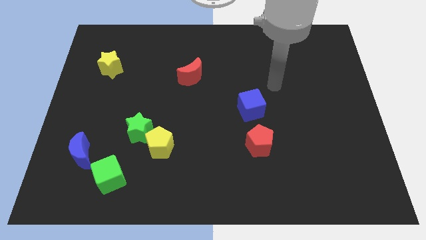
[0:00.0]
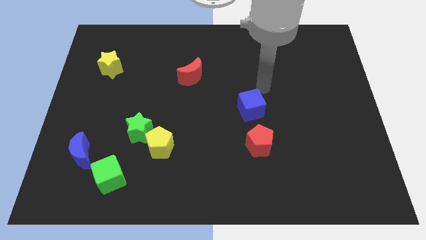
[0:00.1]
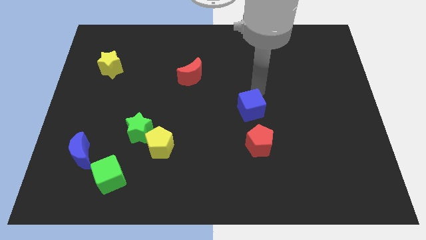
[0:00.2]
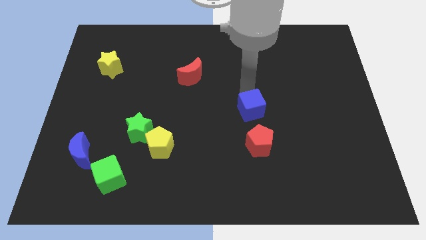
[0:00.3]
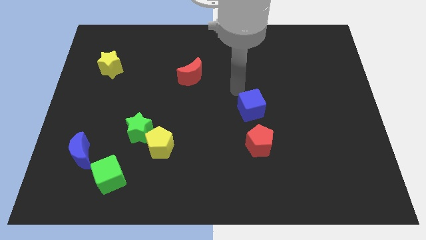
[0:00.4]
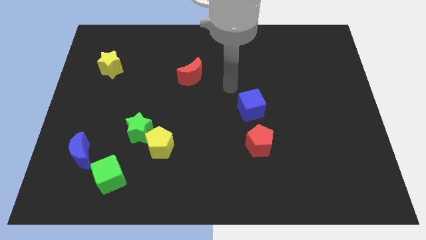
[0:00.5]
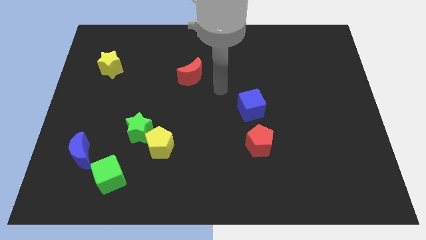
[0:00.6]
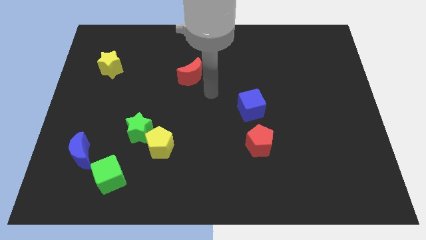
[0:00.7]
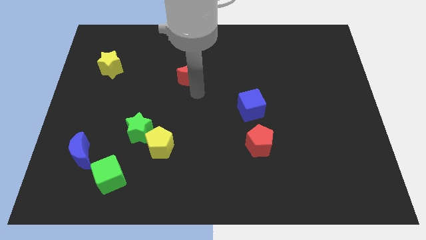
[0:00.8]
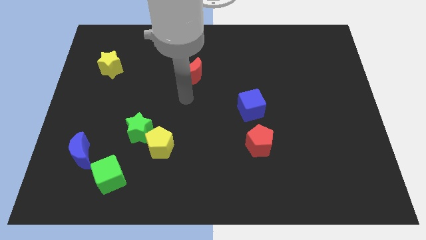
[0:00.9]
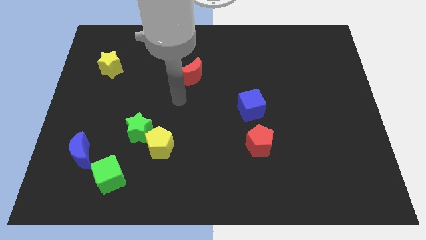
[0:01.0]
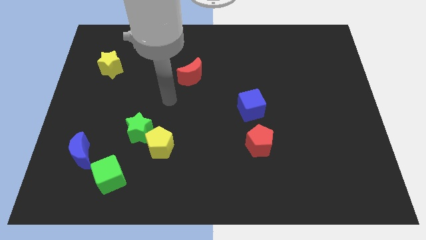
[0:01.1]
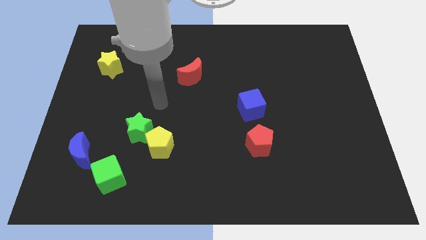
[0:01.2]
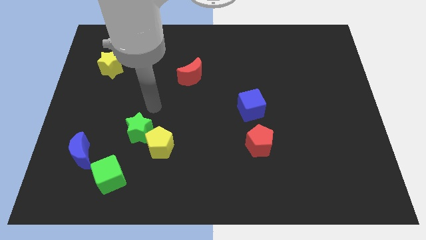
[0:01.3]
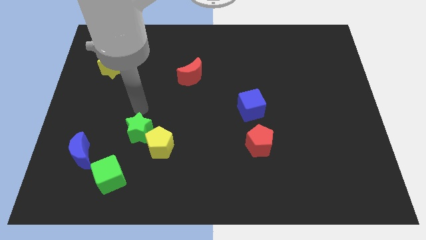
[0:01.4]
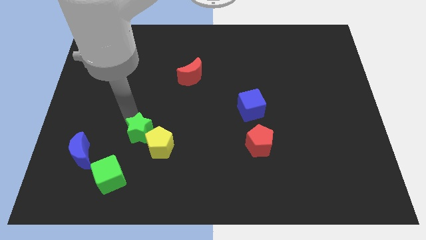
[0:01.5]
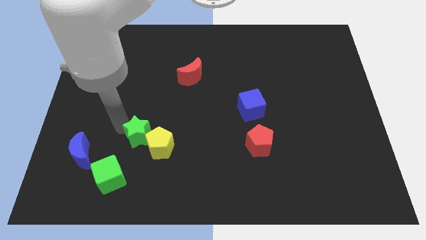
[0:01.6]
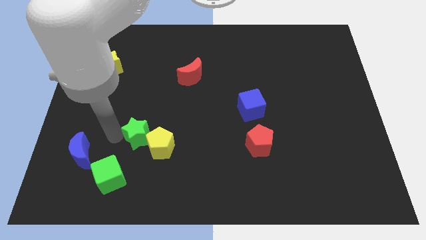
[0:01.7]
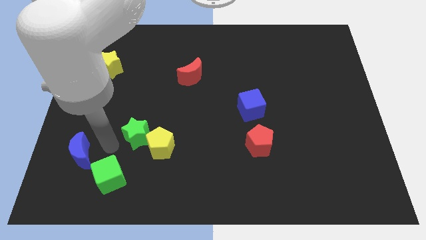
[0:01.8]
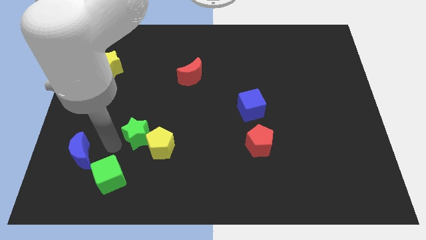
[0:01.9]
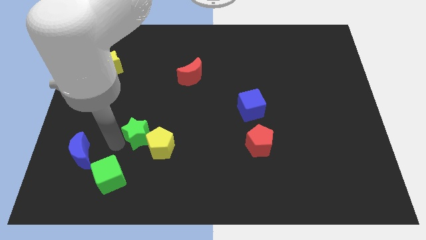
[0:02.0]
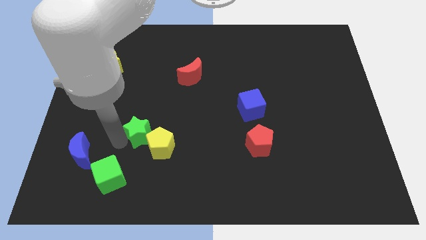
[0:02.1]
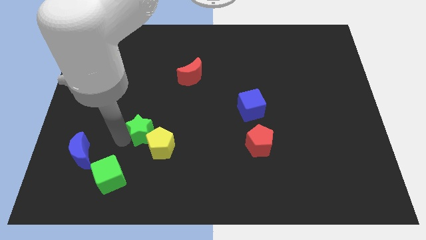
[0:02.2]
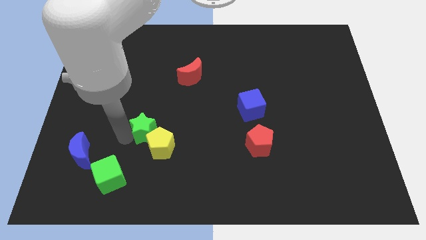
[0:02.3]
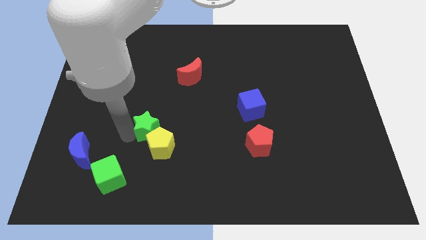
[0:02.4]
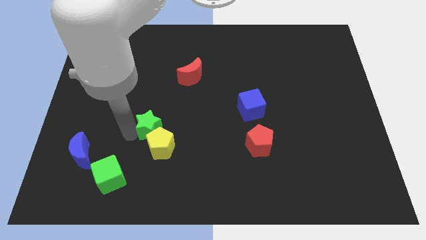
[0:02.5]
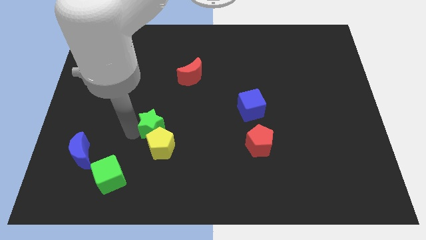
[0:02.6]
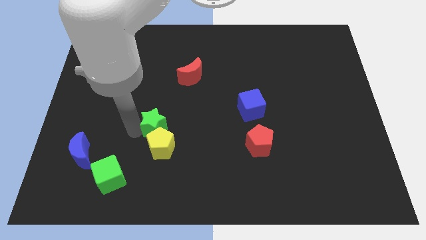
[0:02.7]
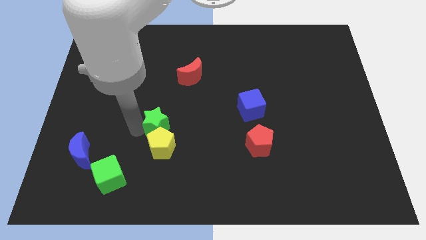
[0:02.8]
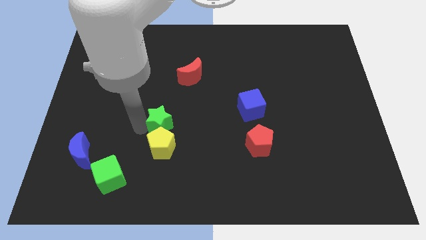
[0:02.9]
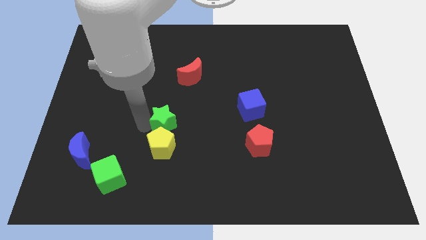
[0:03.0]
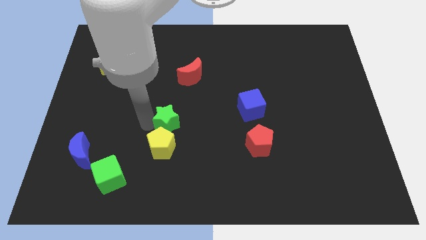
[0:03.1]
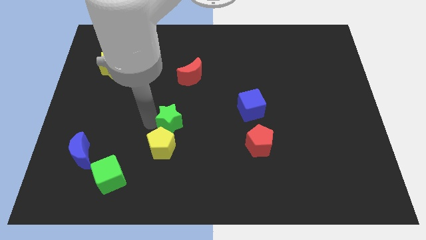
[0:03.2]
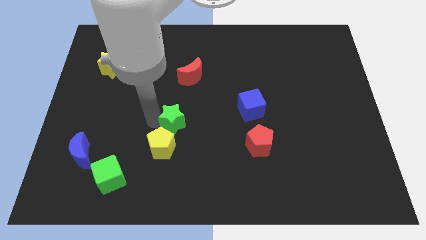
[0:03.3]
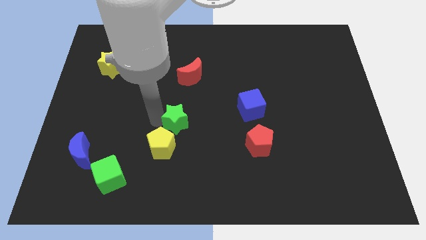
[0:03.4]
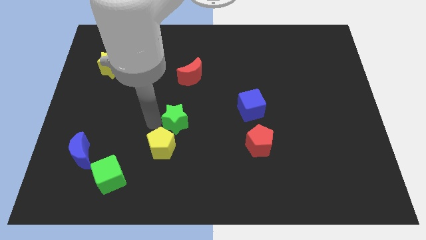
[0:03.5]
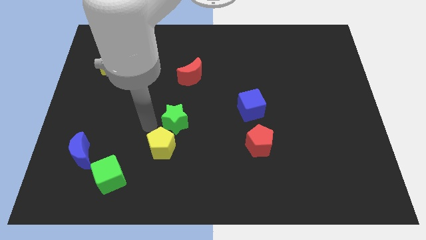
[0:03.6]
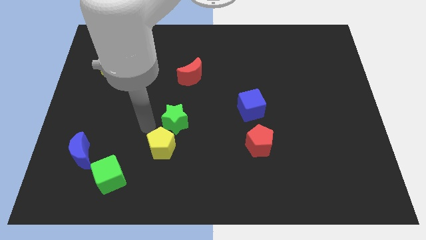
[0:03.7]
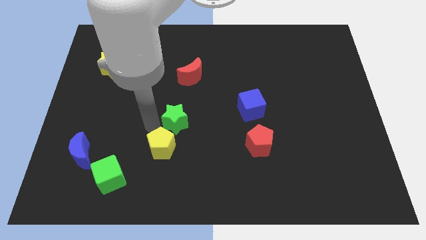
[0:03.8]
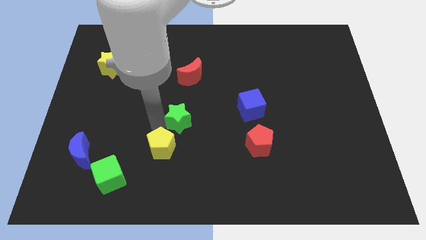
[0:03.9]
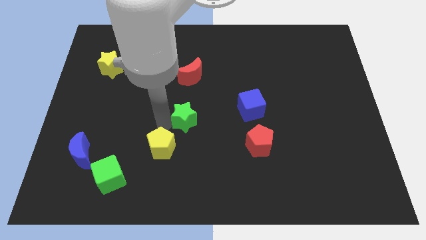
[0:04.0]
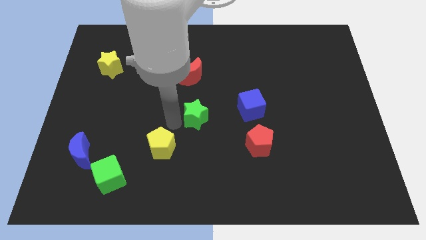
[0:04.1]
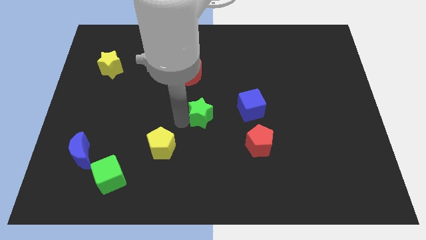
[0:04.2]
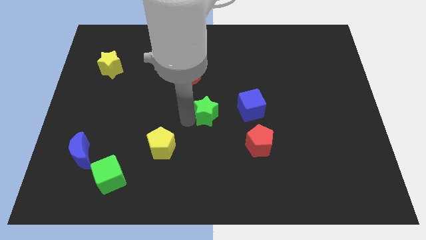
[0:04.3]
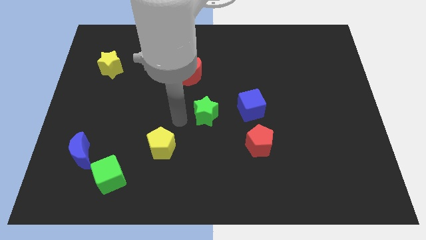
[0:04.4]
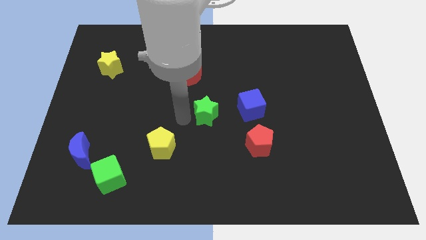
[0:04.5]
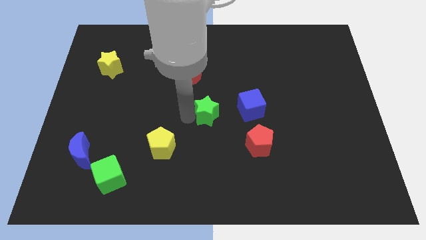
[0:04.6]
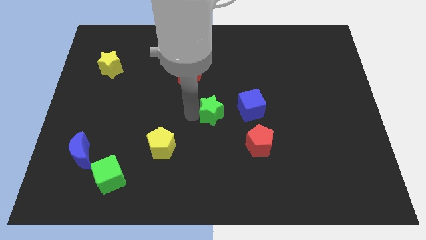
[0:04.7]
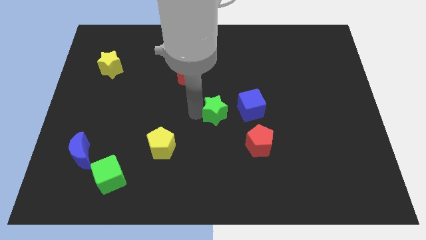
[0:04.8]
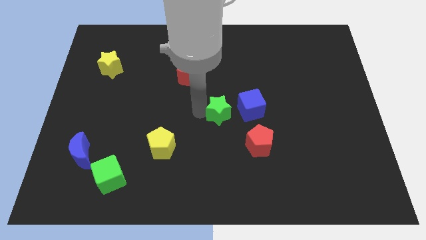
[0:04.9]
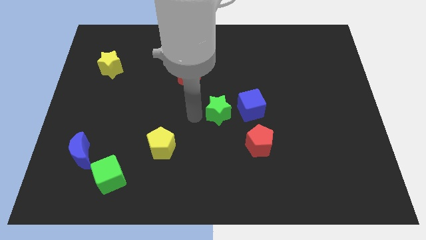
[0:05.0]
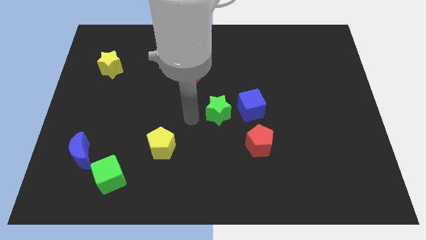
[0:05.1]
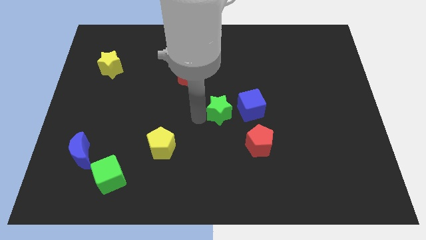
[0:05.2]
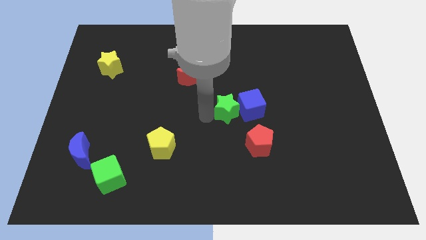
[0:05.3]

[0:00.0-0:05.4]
slide the green star towards the blue cube

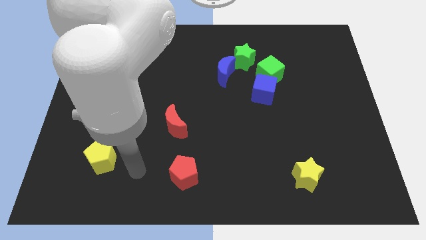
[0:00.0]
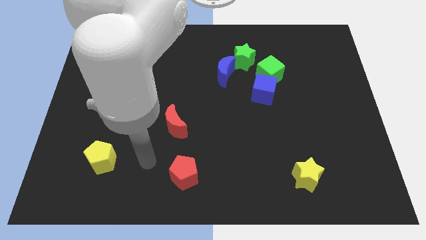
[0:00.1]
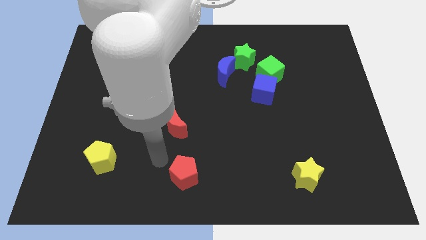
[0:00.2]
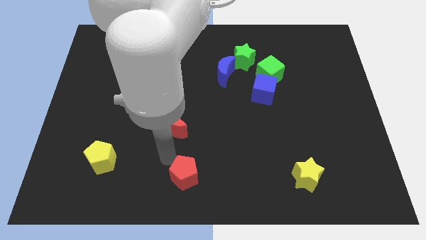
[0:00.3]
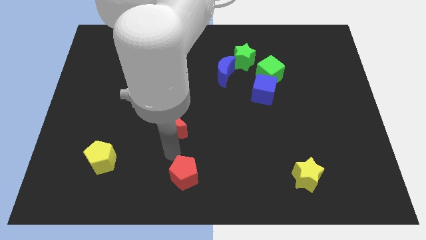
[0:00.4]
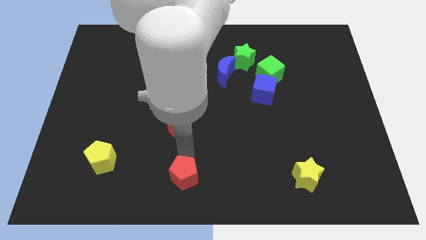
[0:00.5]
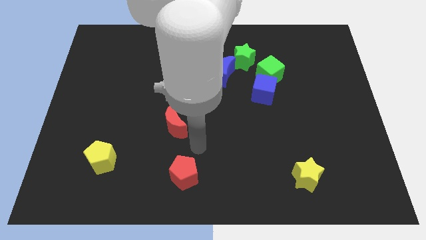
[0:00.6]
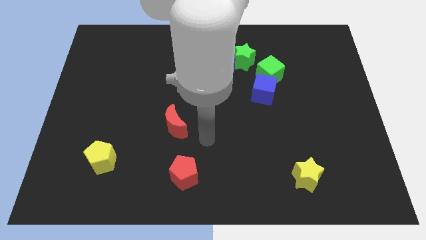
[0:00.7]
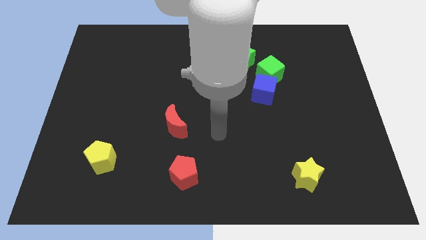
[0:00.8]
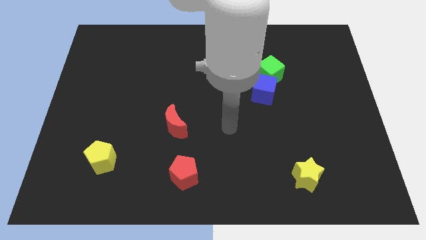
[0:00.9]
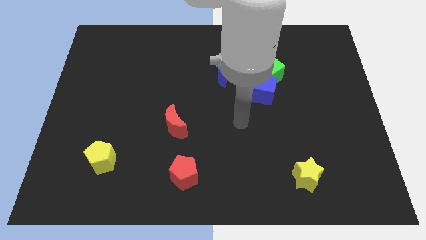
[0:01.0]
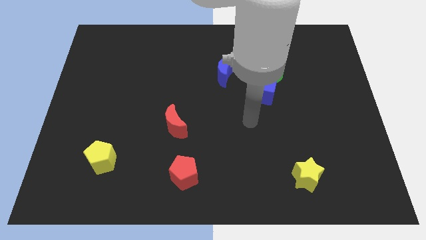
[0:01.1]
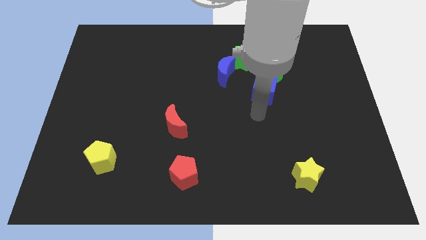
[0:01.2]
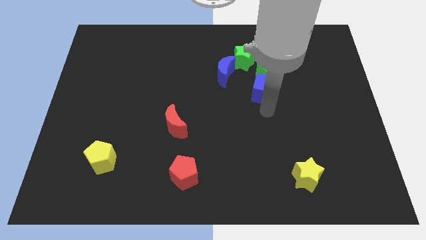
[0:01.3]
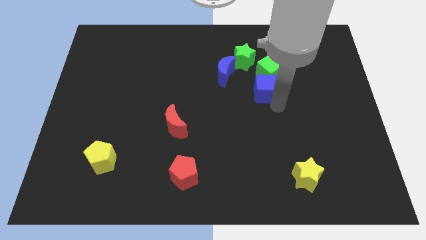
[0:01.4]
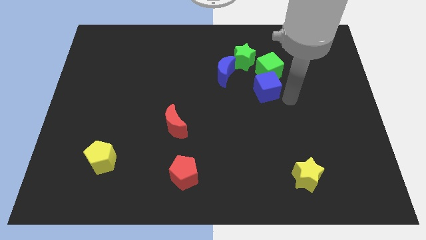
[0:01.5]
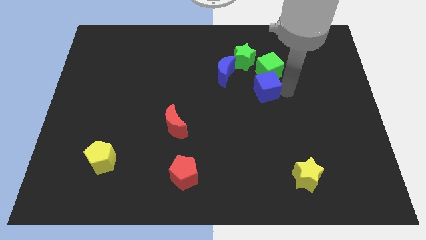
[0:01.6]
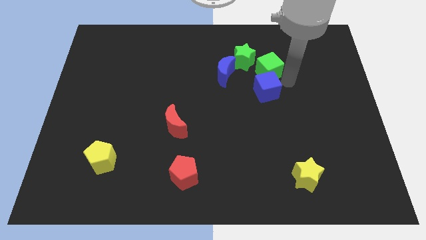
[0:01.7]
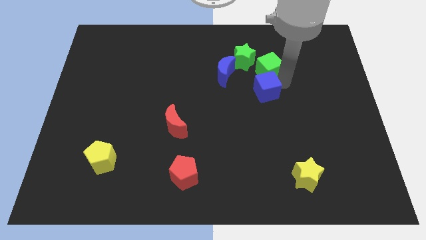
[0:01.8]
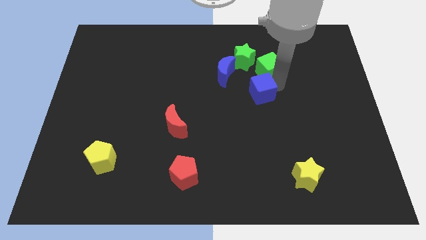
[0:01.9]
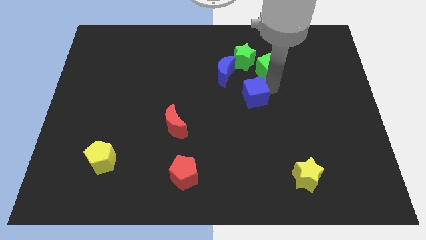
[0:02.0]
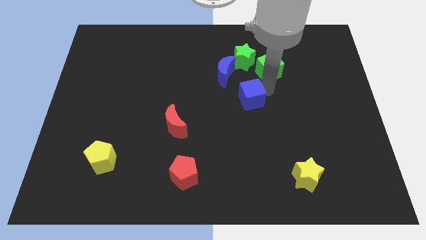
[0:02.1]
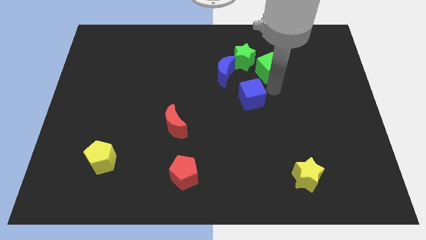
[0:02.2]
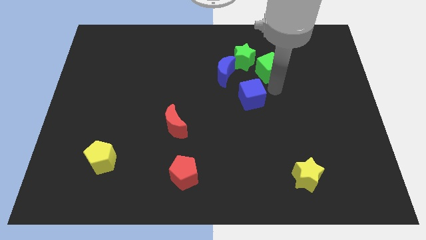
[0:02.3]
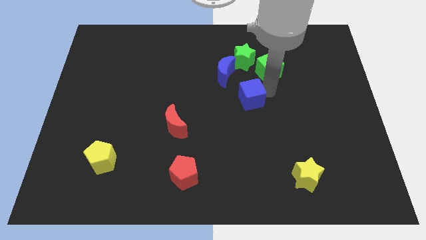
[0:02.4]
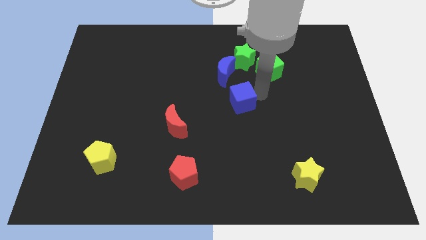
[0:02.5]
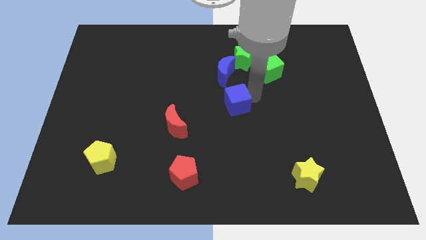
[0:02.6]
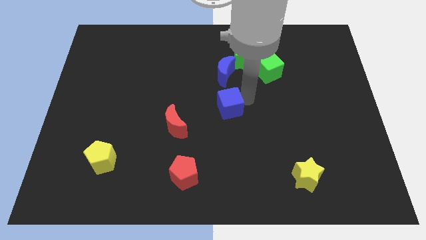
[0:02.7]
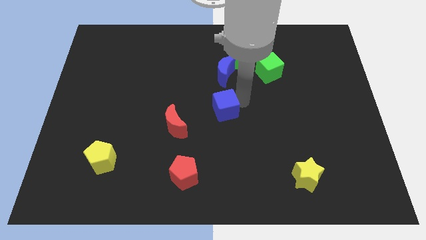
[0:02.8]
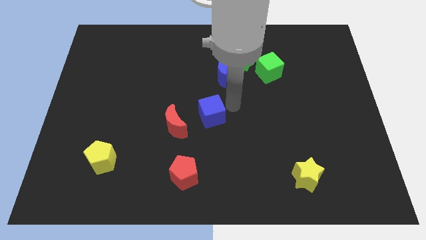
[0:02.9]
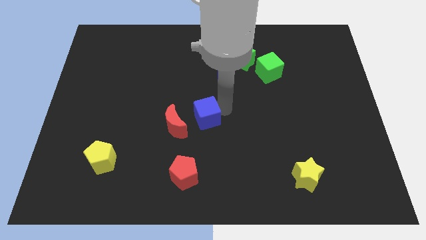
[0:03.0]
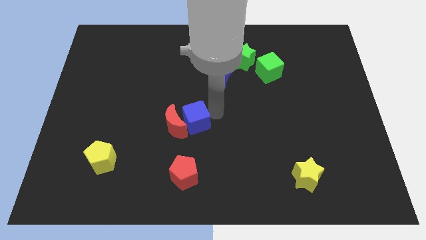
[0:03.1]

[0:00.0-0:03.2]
put the blue cube towards the red moon
